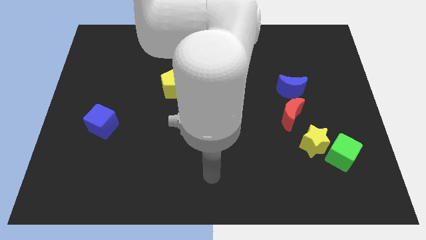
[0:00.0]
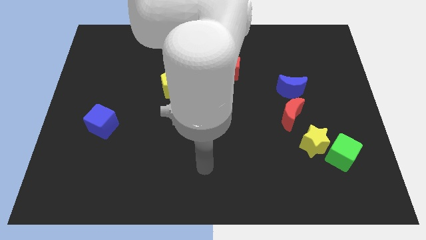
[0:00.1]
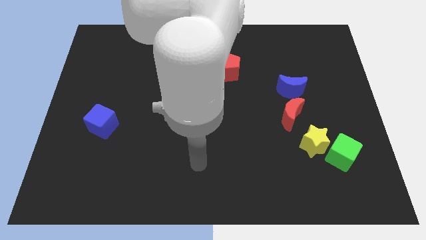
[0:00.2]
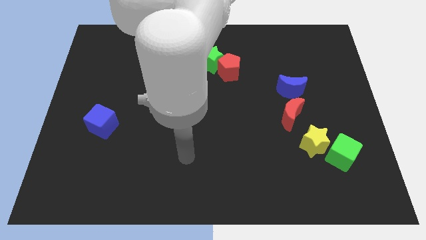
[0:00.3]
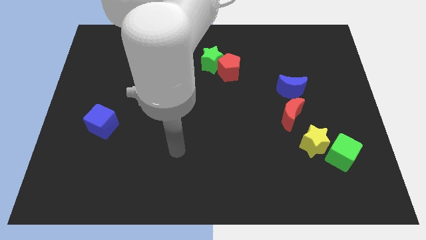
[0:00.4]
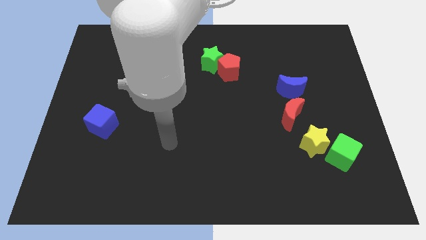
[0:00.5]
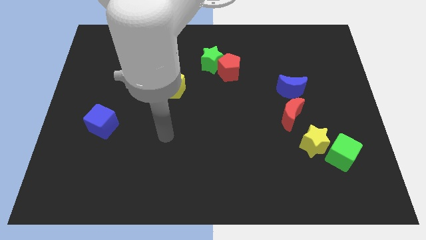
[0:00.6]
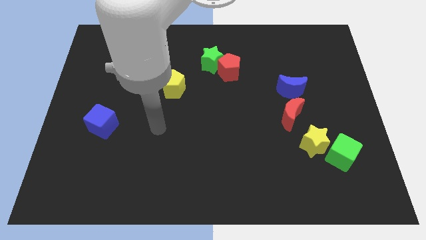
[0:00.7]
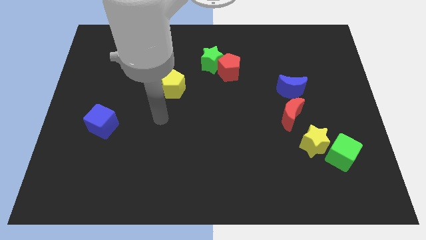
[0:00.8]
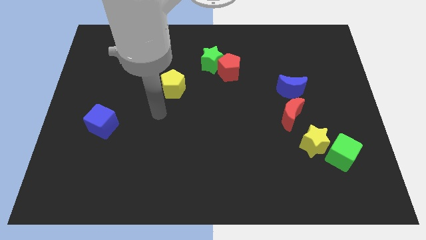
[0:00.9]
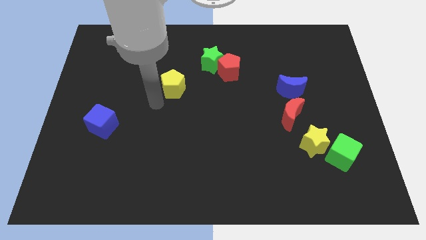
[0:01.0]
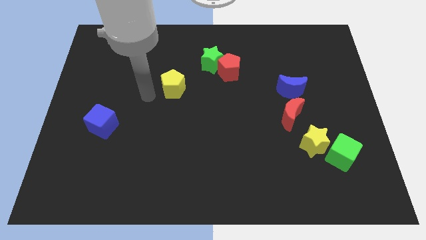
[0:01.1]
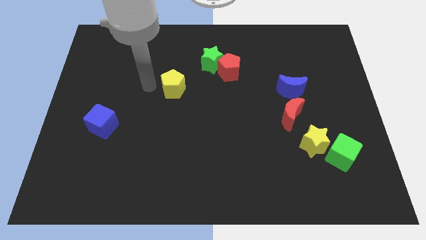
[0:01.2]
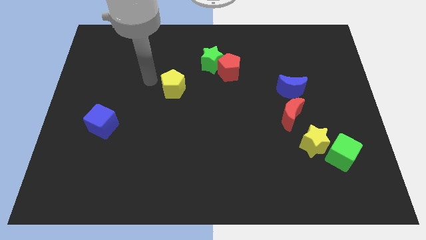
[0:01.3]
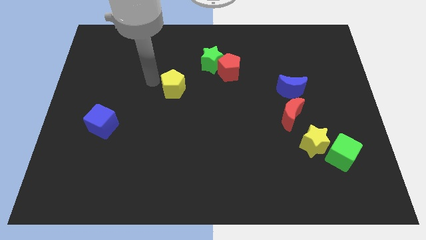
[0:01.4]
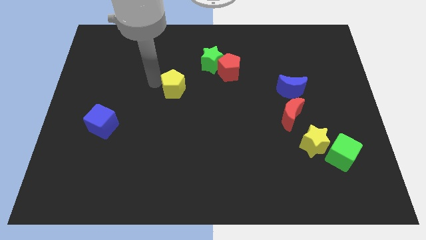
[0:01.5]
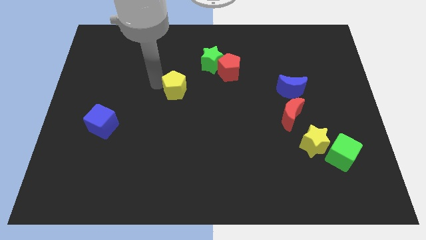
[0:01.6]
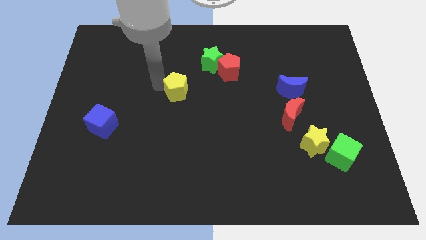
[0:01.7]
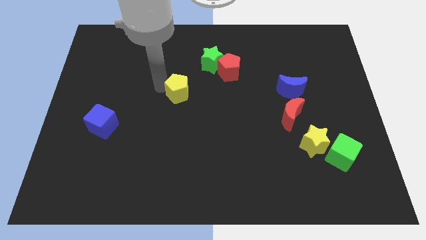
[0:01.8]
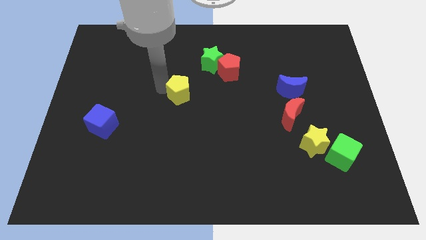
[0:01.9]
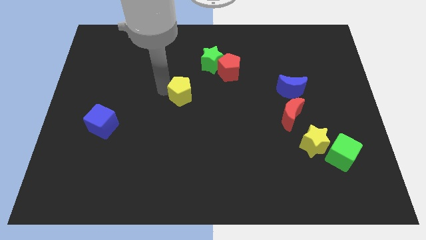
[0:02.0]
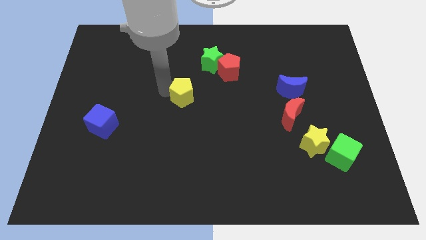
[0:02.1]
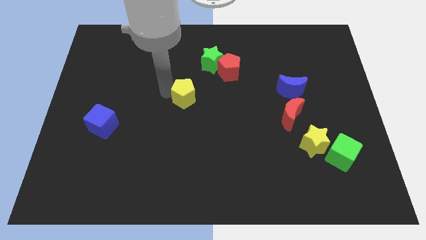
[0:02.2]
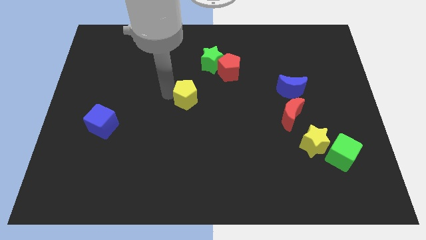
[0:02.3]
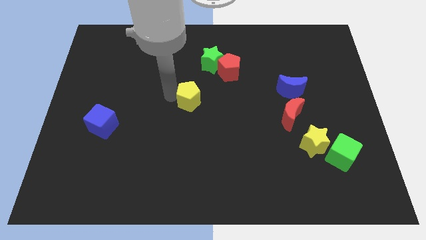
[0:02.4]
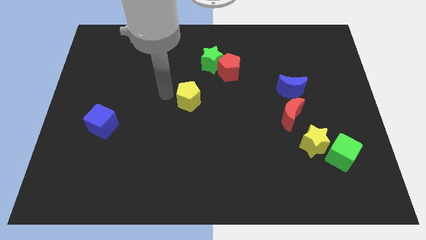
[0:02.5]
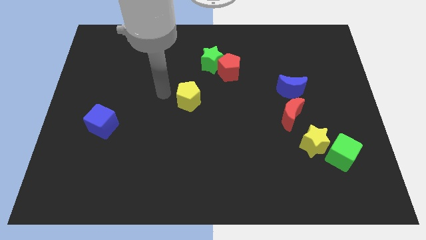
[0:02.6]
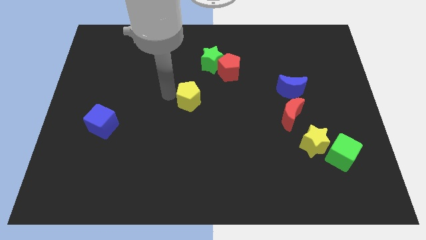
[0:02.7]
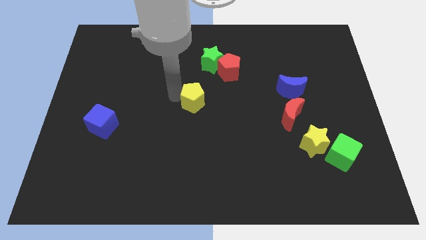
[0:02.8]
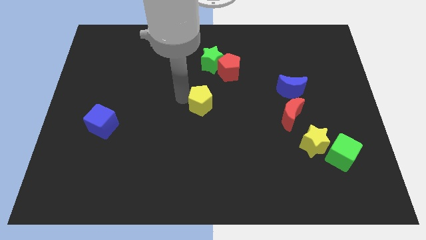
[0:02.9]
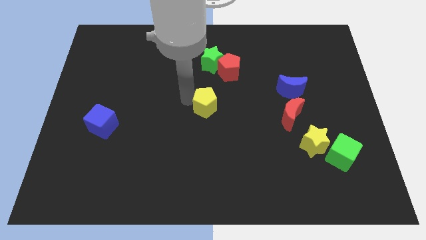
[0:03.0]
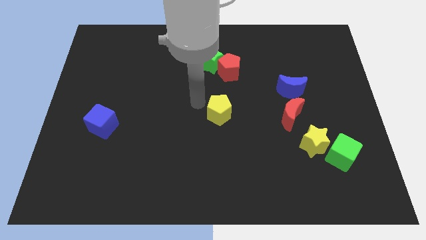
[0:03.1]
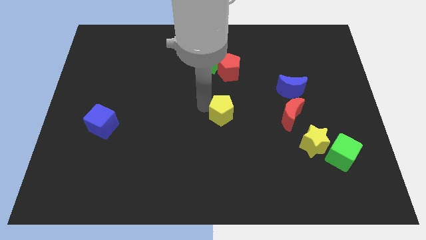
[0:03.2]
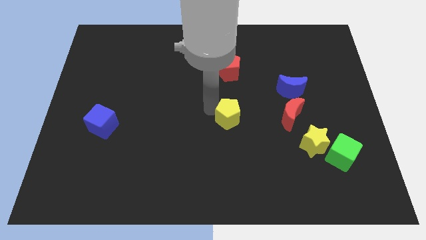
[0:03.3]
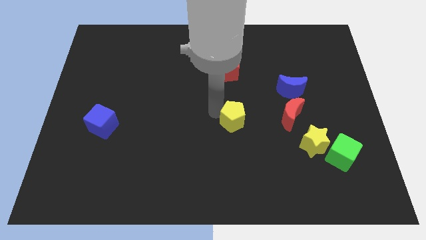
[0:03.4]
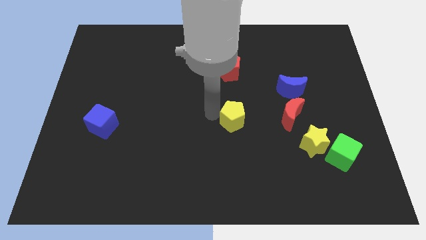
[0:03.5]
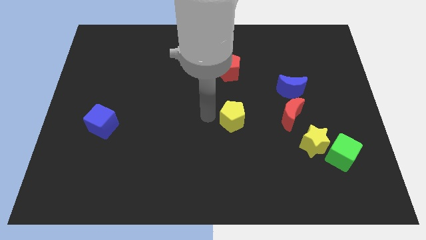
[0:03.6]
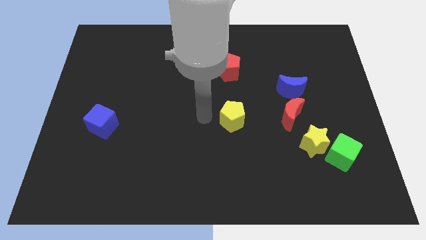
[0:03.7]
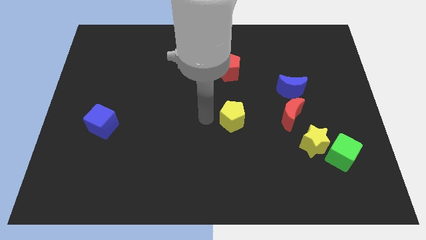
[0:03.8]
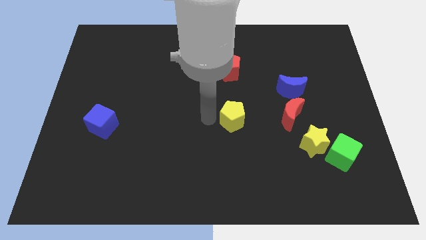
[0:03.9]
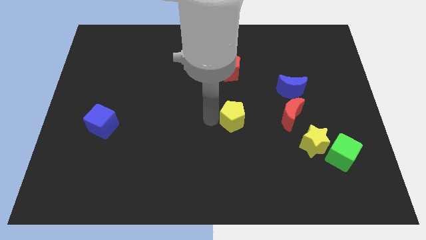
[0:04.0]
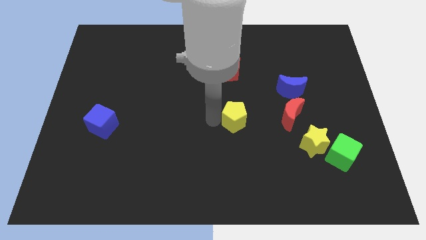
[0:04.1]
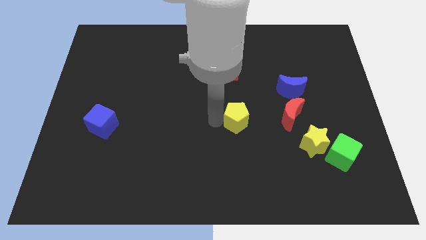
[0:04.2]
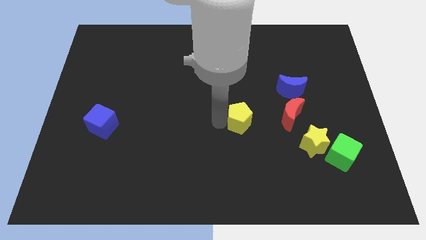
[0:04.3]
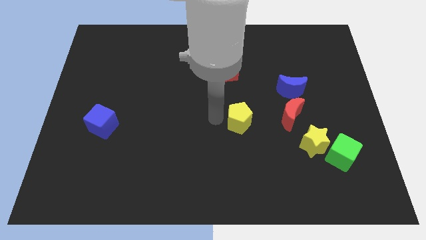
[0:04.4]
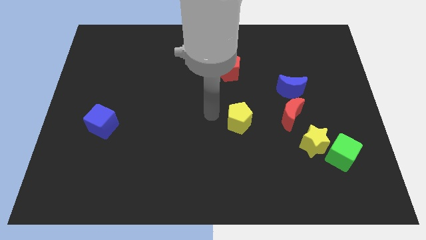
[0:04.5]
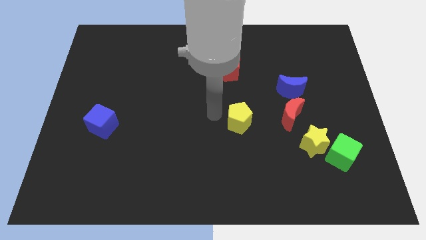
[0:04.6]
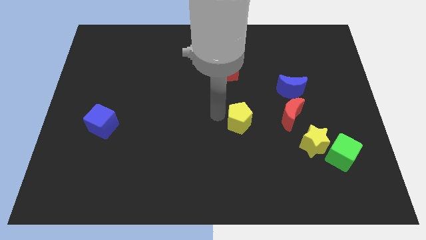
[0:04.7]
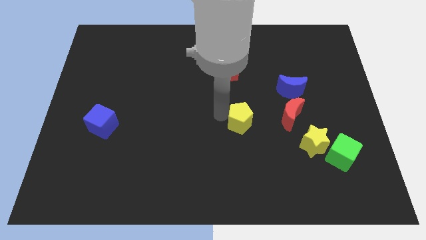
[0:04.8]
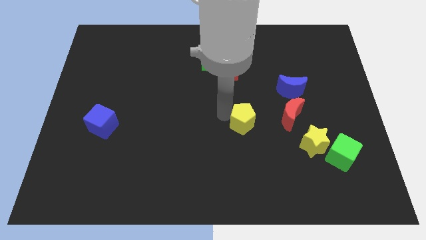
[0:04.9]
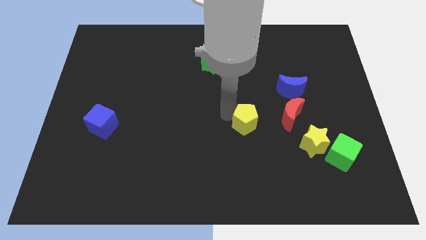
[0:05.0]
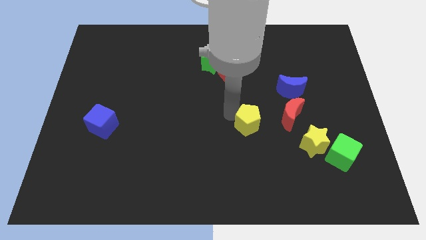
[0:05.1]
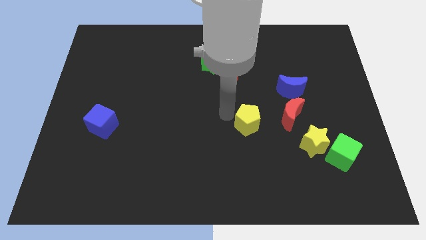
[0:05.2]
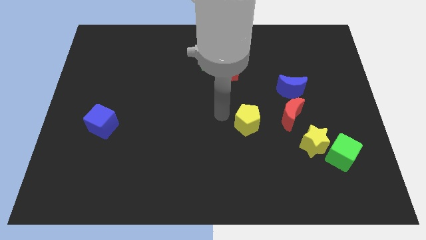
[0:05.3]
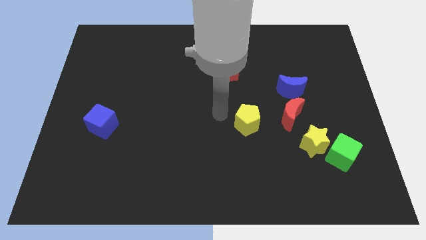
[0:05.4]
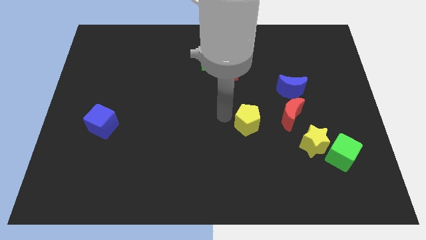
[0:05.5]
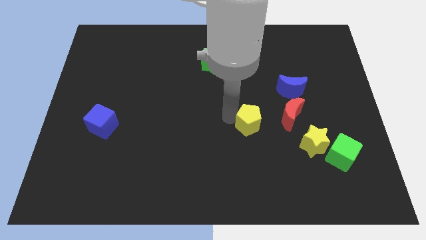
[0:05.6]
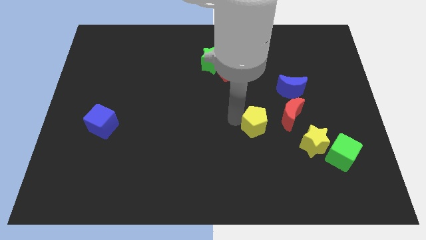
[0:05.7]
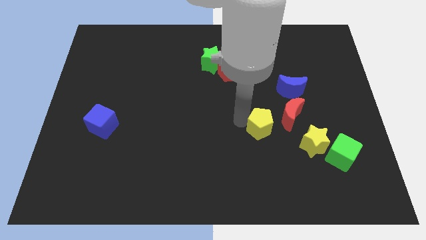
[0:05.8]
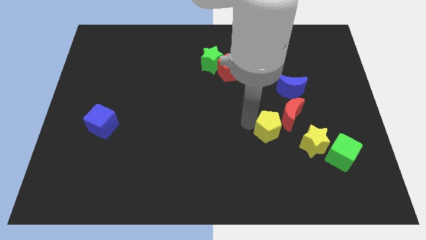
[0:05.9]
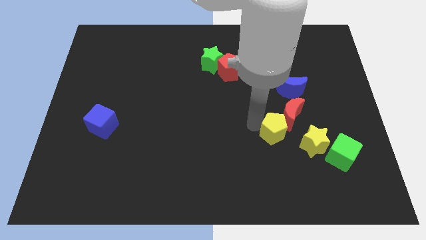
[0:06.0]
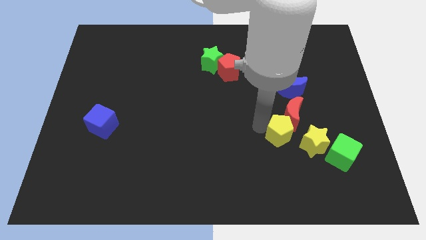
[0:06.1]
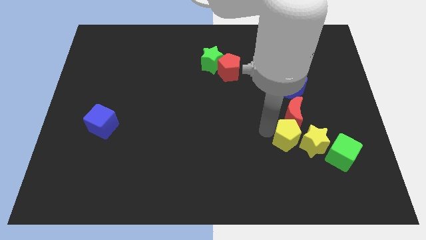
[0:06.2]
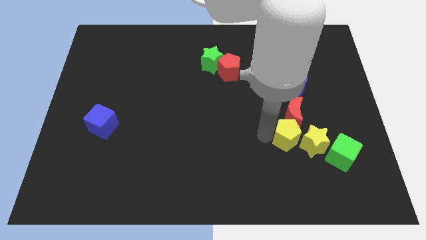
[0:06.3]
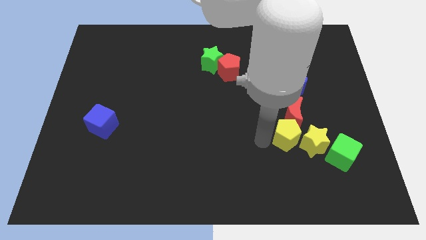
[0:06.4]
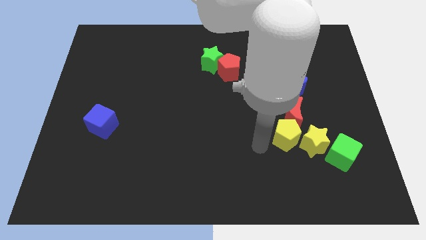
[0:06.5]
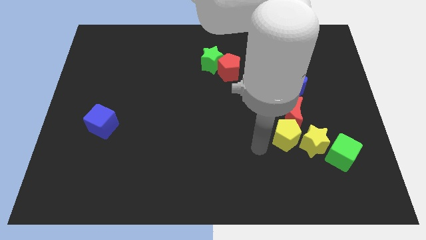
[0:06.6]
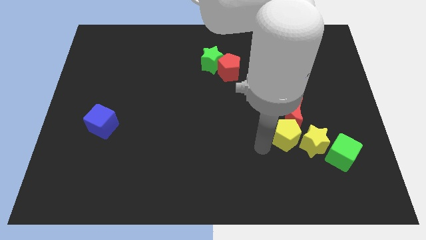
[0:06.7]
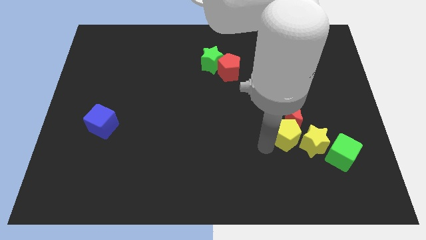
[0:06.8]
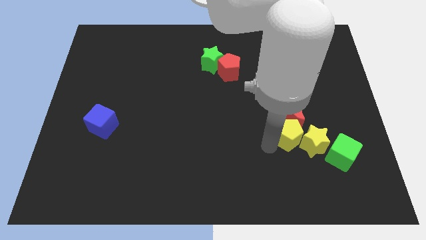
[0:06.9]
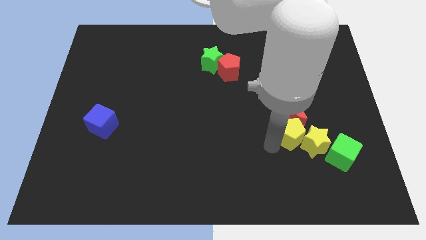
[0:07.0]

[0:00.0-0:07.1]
move the yellow pentagon diagonally up and to the left of the green cube
